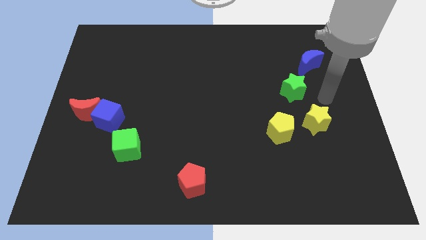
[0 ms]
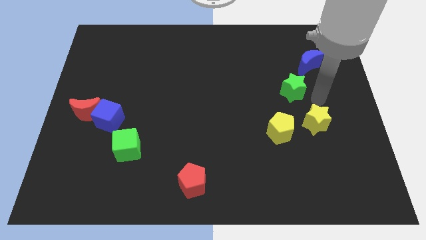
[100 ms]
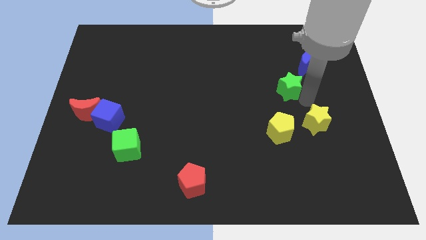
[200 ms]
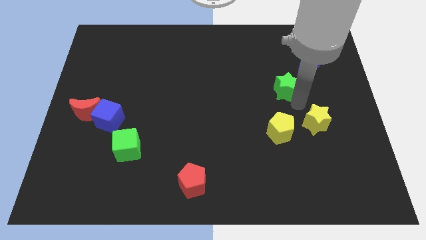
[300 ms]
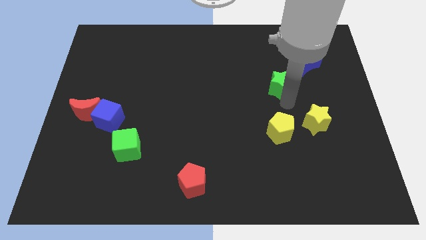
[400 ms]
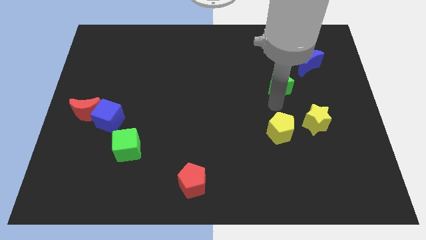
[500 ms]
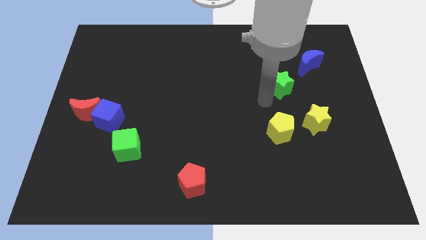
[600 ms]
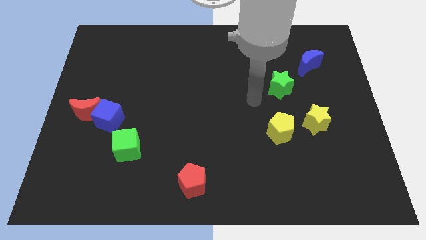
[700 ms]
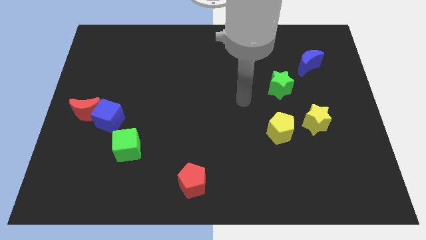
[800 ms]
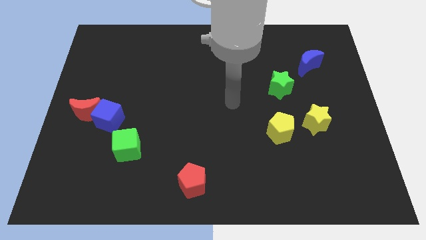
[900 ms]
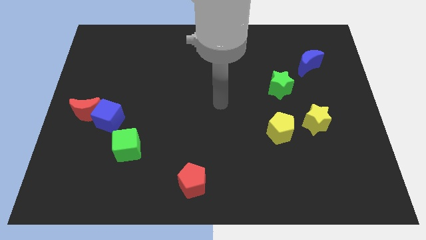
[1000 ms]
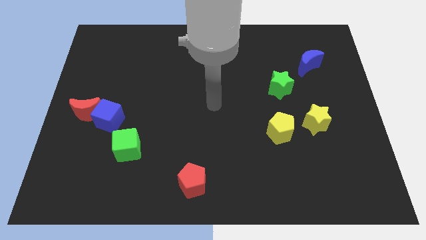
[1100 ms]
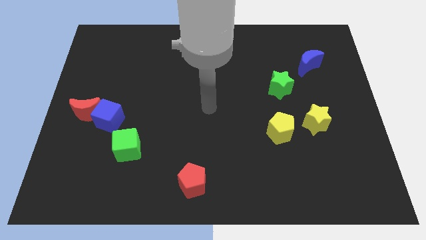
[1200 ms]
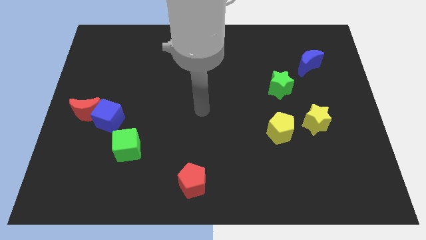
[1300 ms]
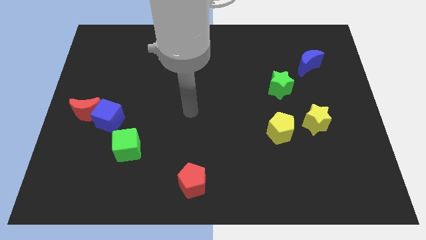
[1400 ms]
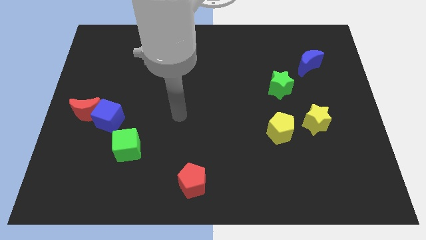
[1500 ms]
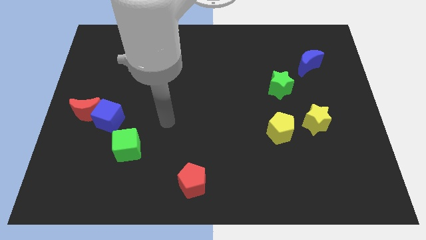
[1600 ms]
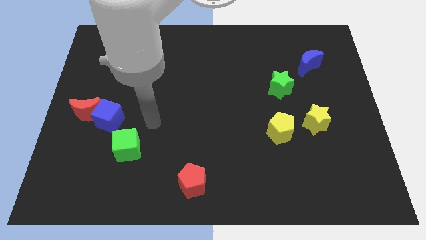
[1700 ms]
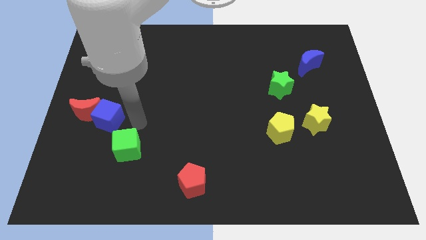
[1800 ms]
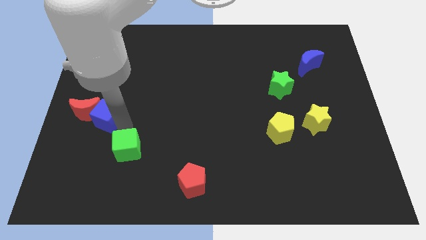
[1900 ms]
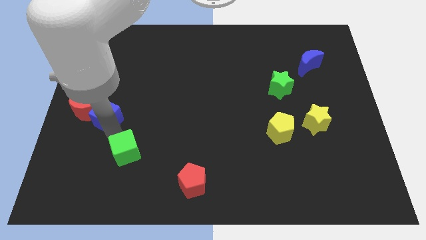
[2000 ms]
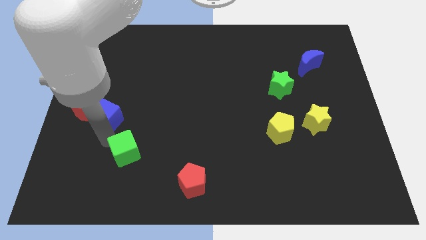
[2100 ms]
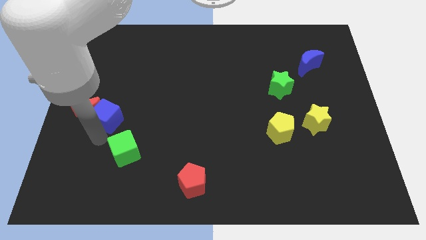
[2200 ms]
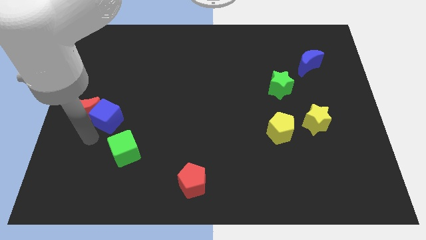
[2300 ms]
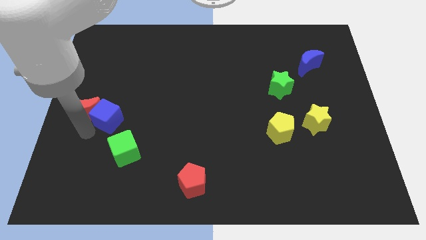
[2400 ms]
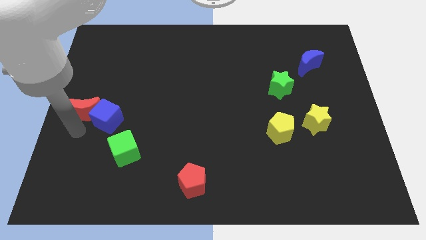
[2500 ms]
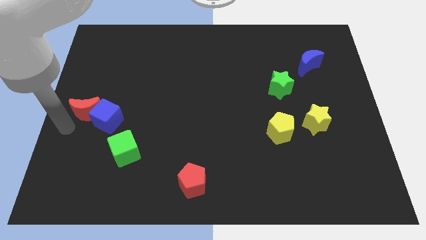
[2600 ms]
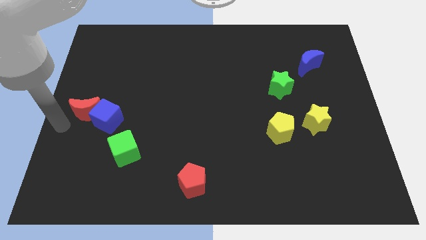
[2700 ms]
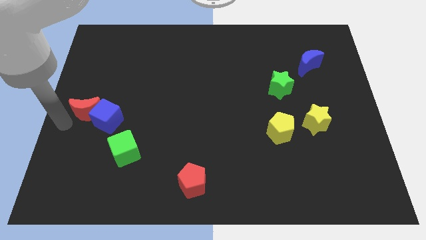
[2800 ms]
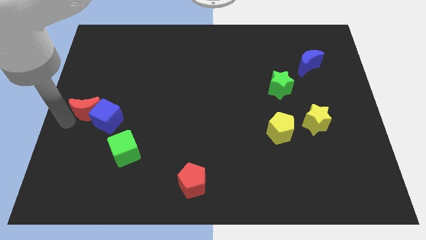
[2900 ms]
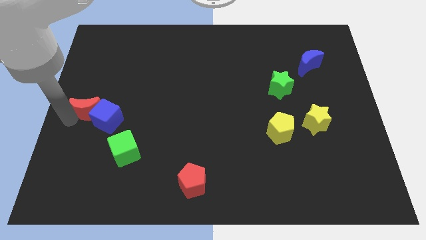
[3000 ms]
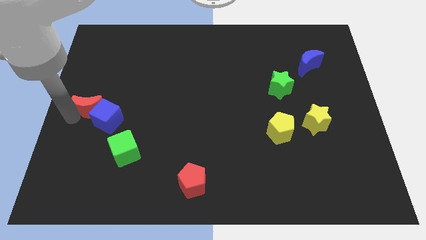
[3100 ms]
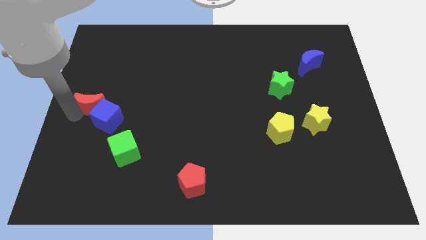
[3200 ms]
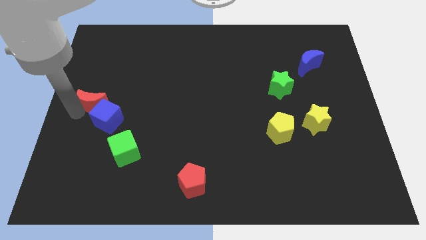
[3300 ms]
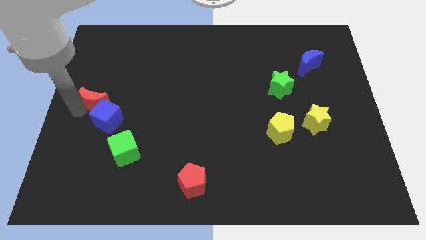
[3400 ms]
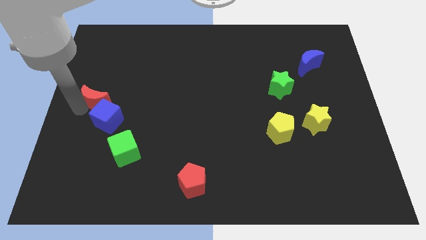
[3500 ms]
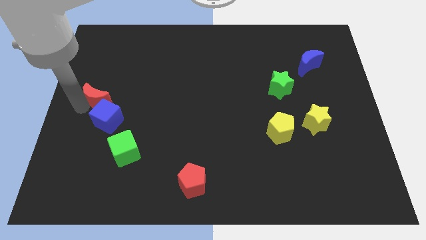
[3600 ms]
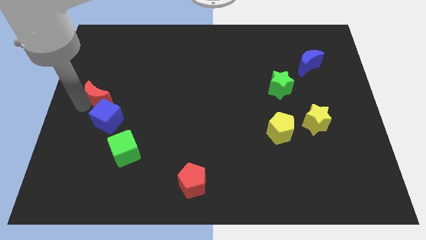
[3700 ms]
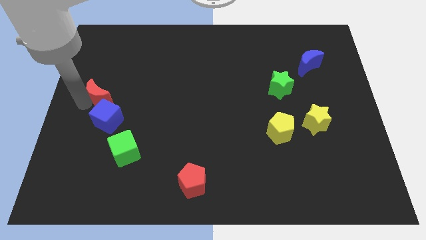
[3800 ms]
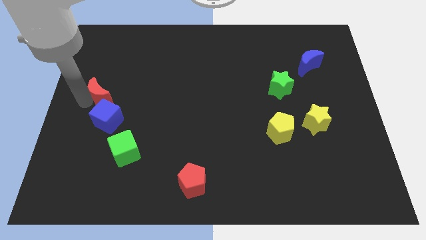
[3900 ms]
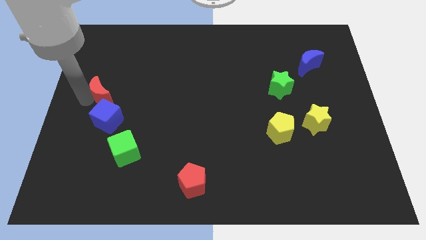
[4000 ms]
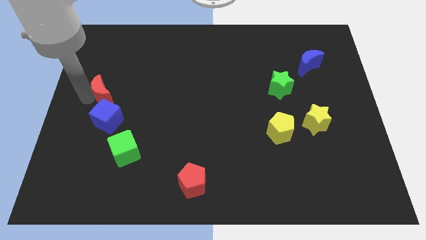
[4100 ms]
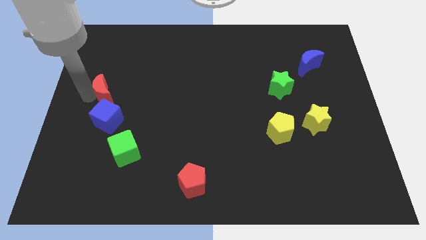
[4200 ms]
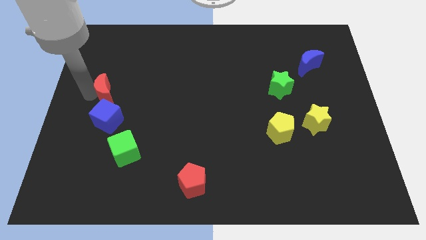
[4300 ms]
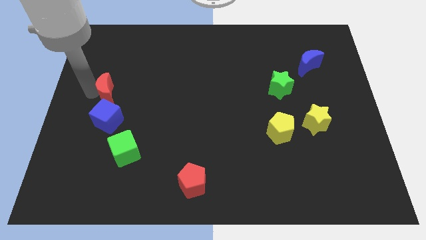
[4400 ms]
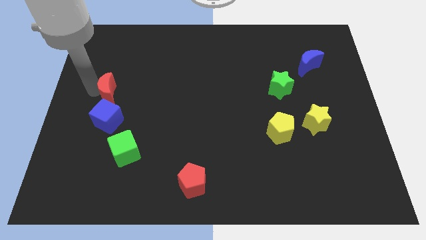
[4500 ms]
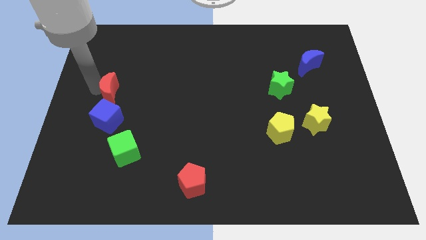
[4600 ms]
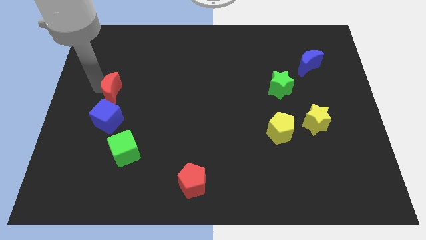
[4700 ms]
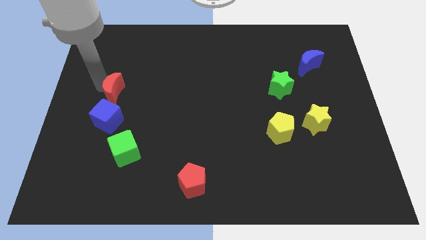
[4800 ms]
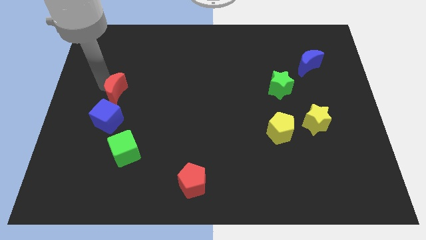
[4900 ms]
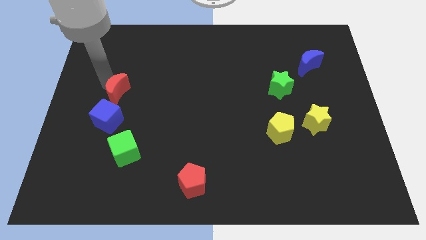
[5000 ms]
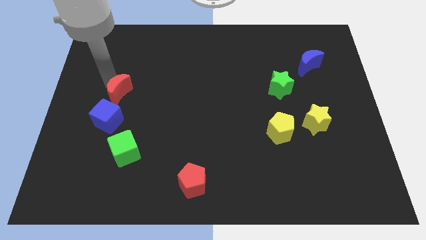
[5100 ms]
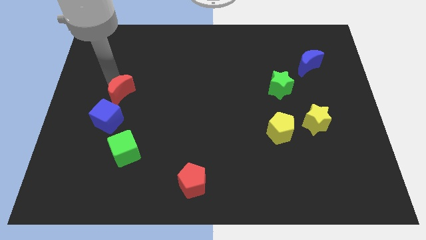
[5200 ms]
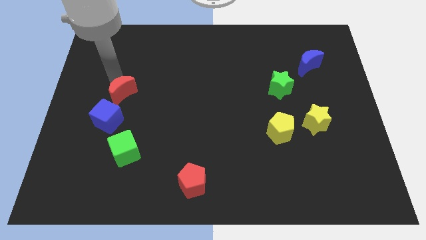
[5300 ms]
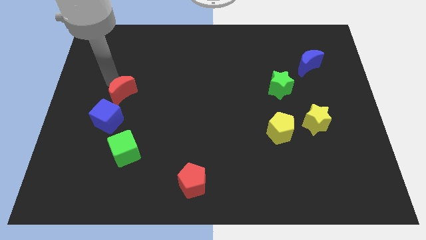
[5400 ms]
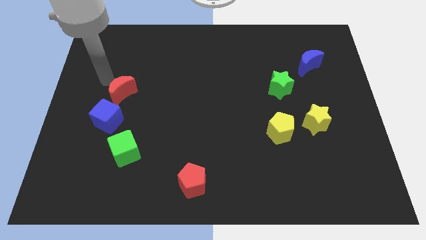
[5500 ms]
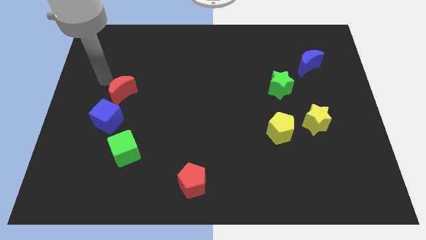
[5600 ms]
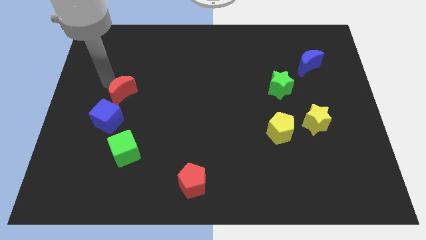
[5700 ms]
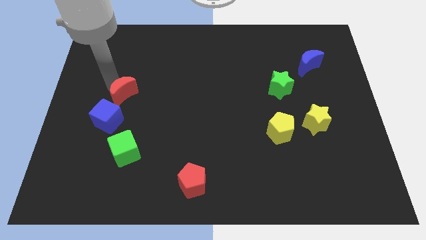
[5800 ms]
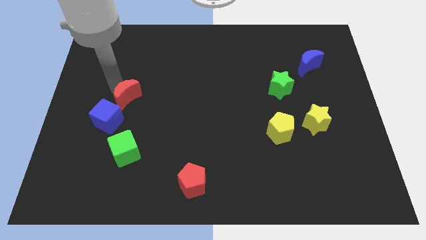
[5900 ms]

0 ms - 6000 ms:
slightly push the red moon to the right

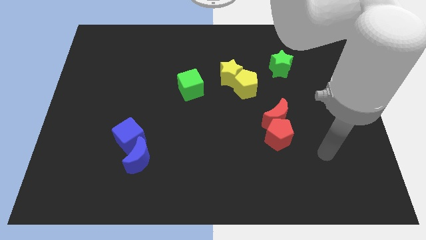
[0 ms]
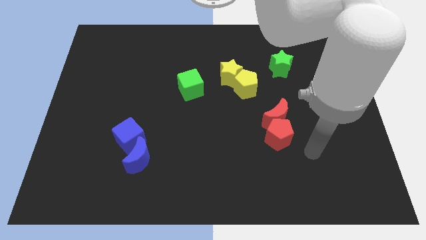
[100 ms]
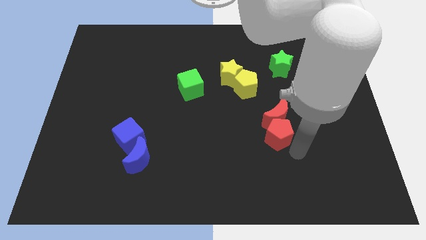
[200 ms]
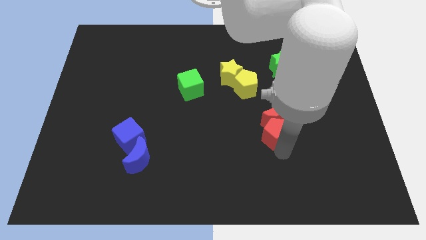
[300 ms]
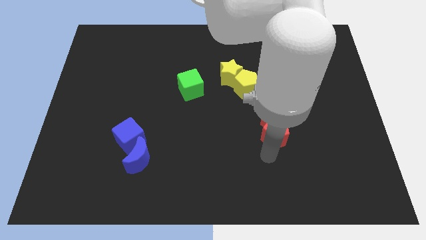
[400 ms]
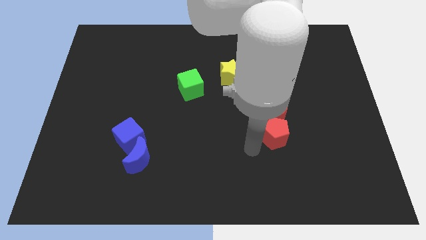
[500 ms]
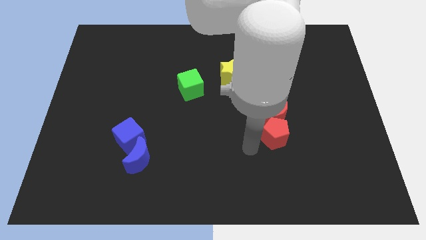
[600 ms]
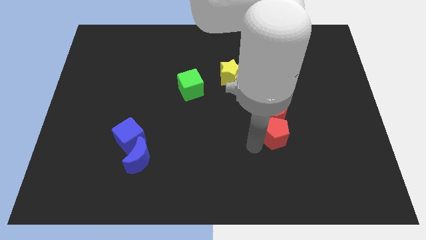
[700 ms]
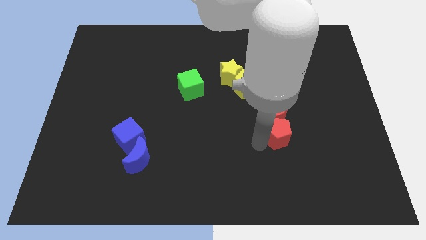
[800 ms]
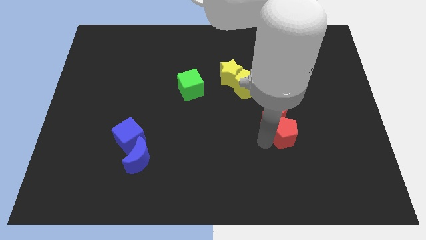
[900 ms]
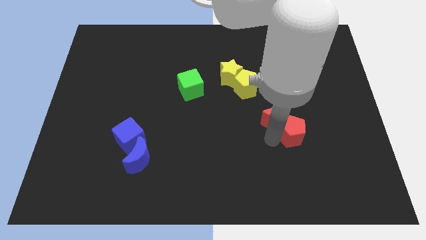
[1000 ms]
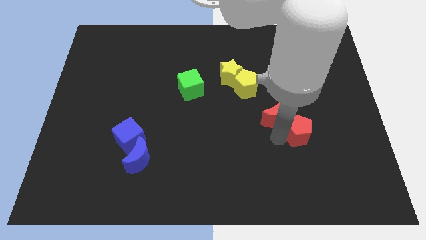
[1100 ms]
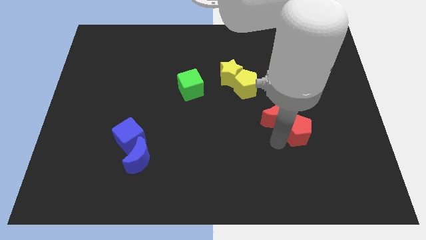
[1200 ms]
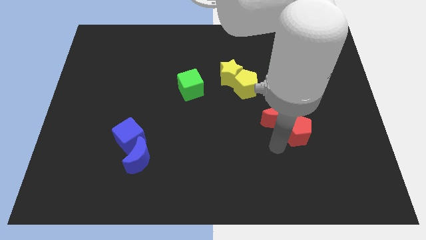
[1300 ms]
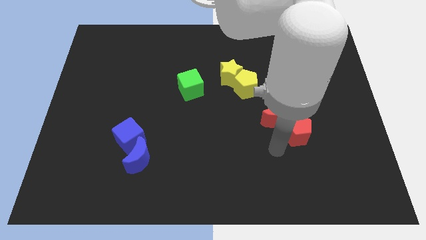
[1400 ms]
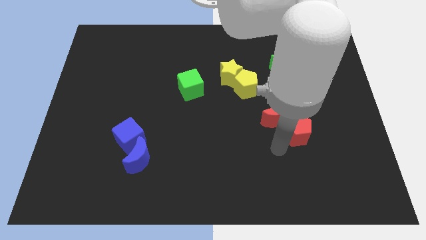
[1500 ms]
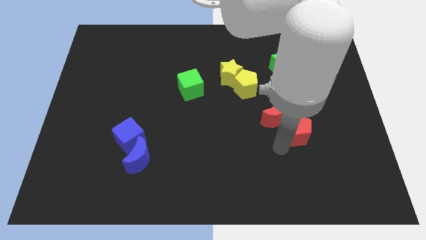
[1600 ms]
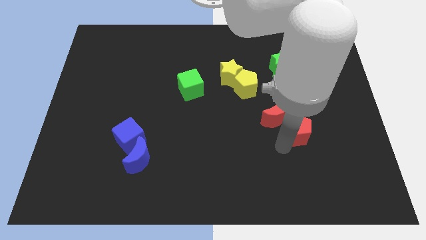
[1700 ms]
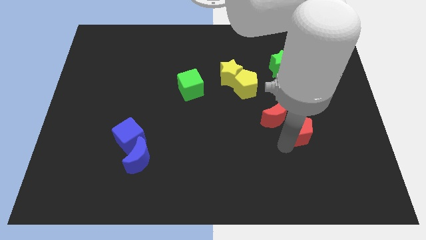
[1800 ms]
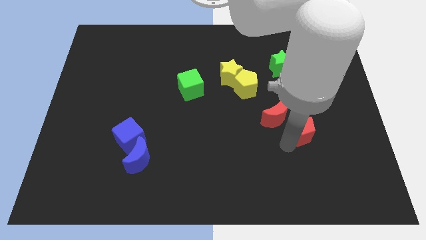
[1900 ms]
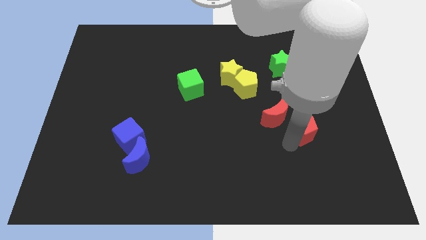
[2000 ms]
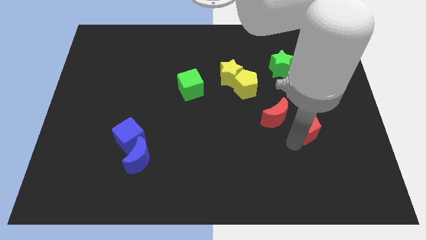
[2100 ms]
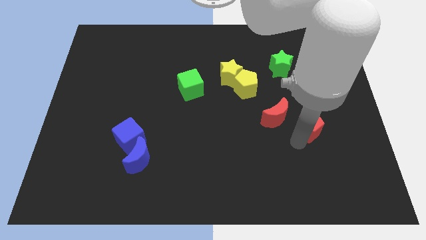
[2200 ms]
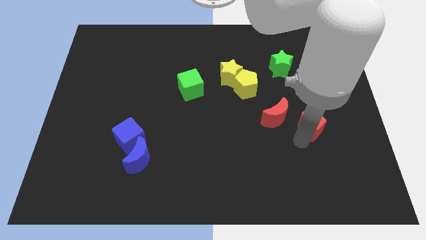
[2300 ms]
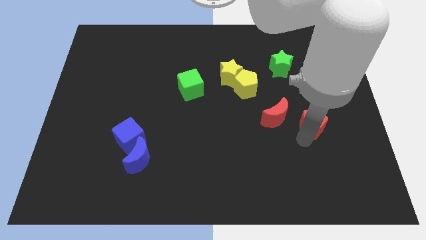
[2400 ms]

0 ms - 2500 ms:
move the red pentagon a bit upwards and then right
